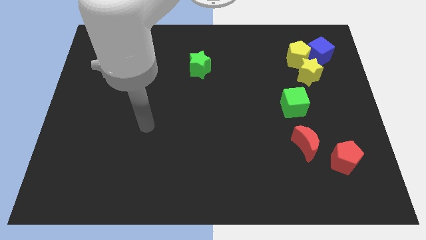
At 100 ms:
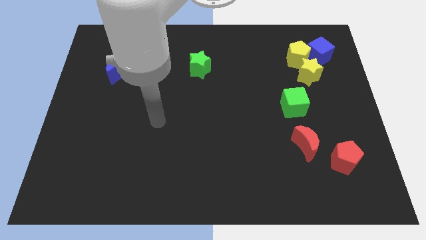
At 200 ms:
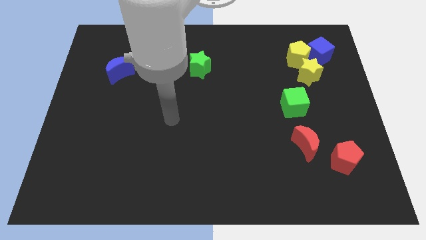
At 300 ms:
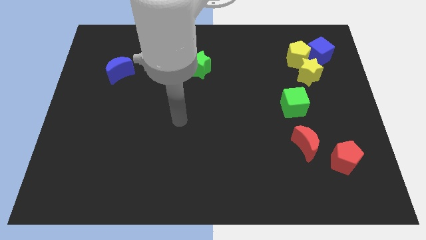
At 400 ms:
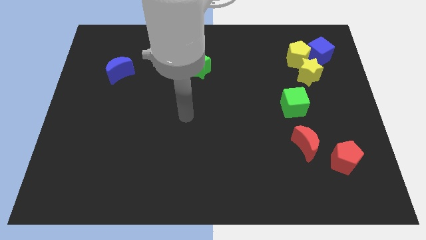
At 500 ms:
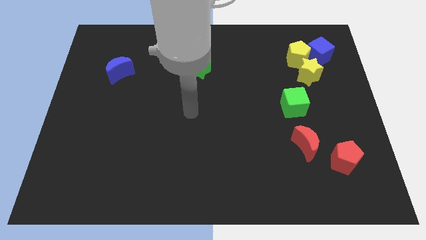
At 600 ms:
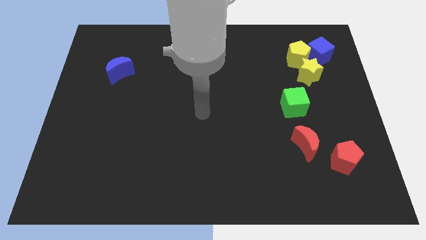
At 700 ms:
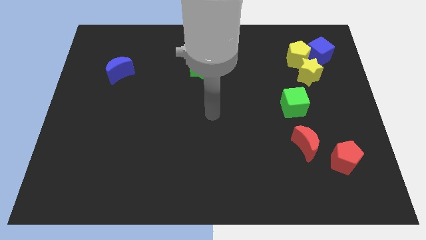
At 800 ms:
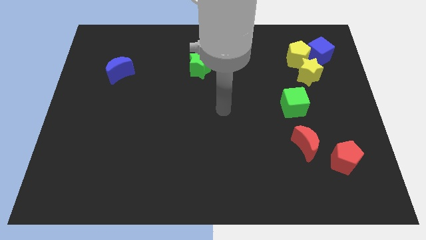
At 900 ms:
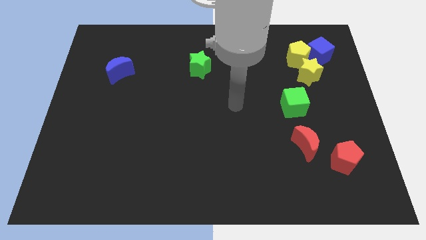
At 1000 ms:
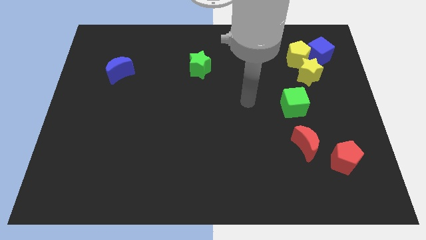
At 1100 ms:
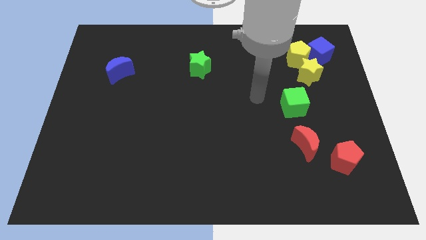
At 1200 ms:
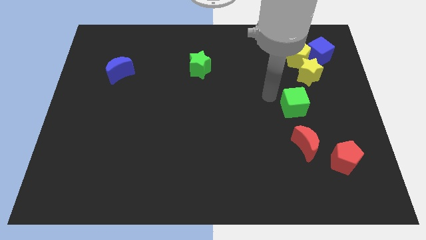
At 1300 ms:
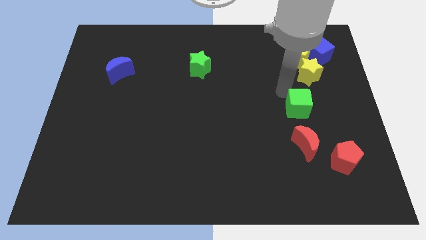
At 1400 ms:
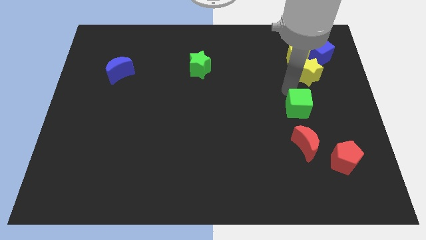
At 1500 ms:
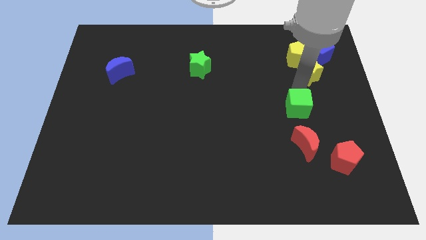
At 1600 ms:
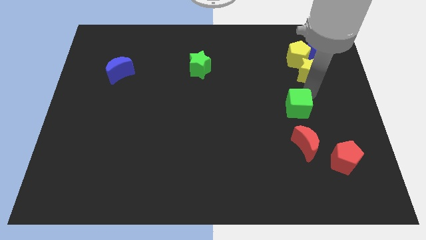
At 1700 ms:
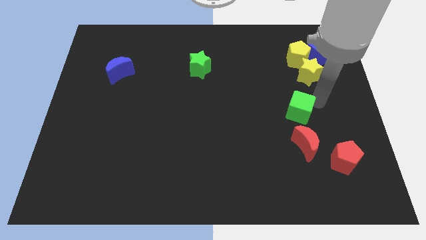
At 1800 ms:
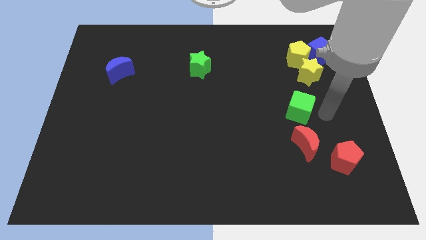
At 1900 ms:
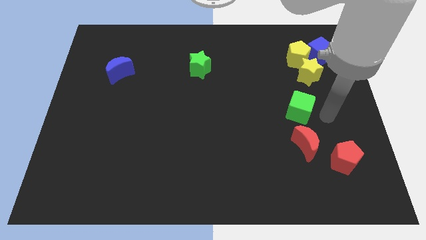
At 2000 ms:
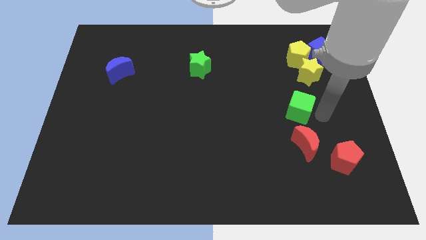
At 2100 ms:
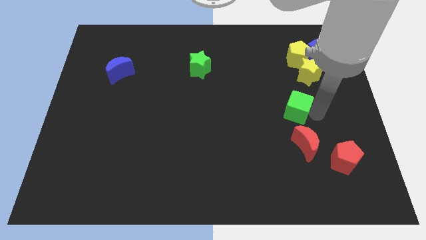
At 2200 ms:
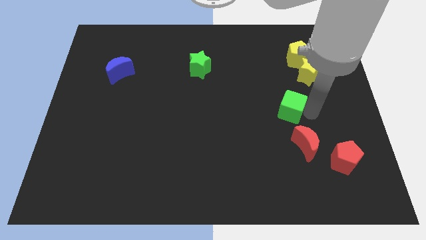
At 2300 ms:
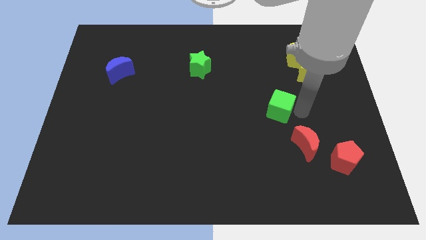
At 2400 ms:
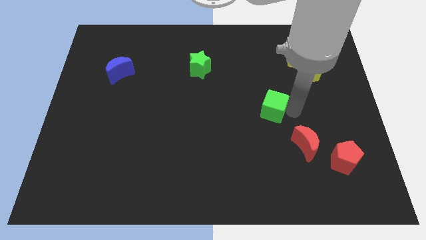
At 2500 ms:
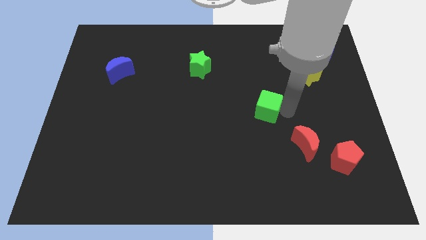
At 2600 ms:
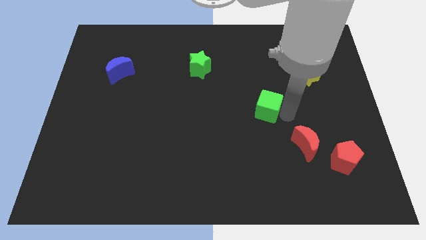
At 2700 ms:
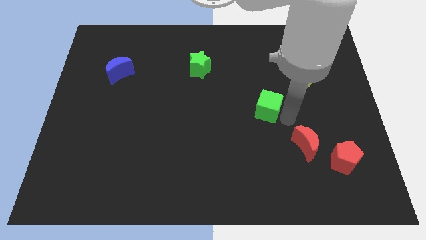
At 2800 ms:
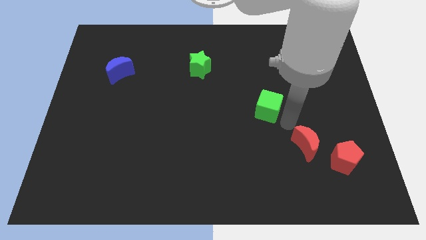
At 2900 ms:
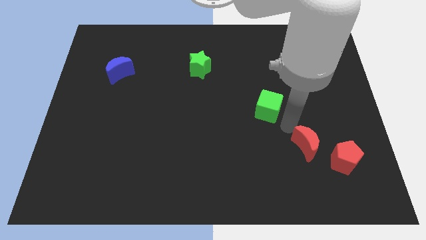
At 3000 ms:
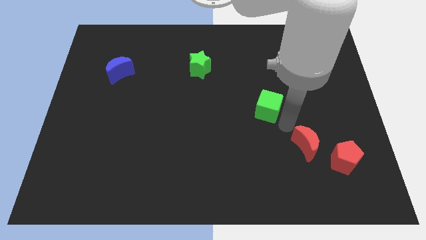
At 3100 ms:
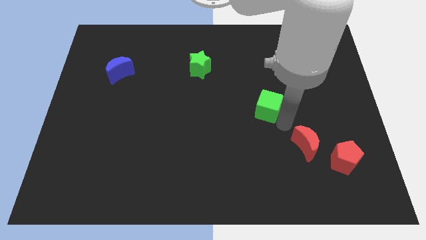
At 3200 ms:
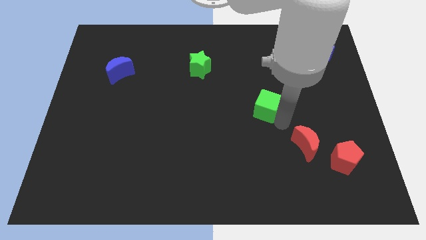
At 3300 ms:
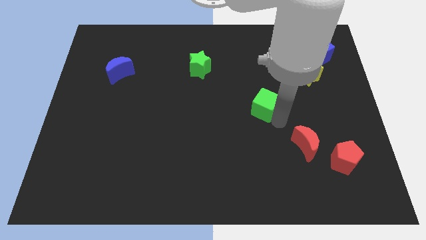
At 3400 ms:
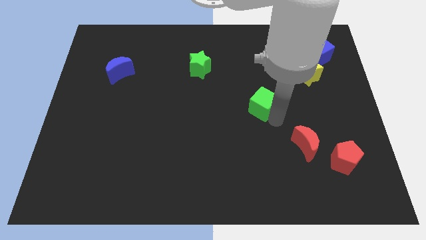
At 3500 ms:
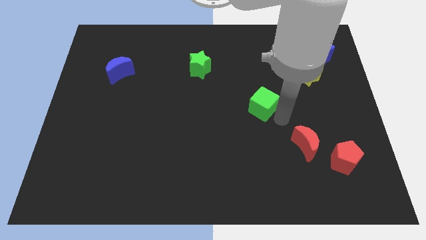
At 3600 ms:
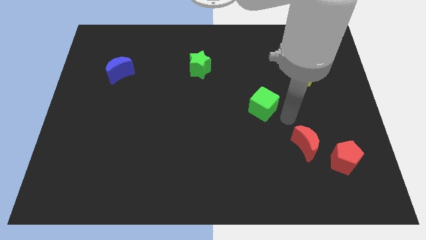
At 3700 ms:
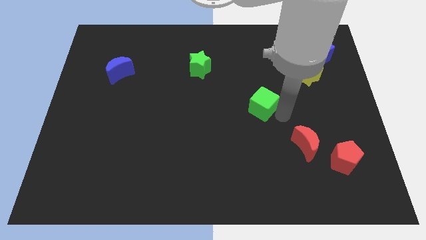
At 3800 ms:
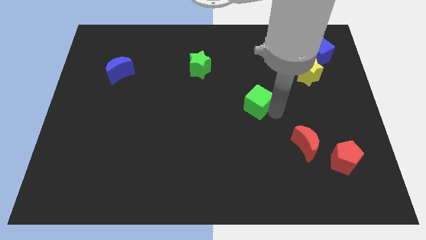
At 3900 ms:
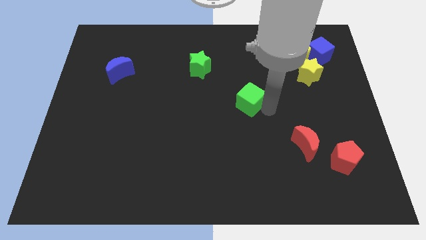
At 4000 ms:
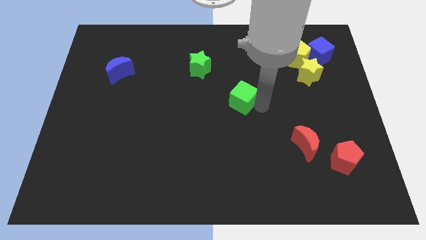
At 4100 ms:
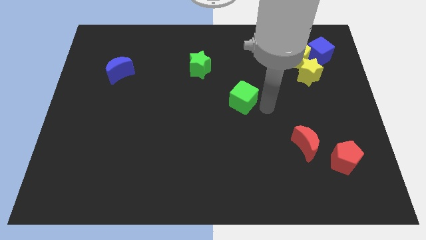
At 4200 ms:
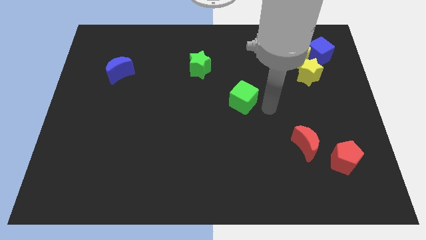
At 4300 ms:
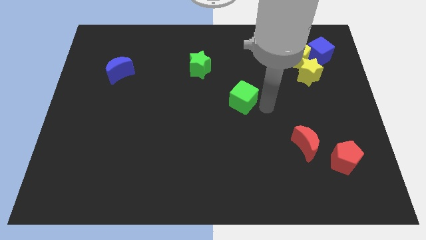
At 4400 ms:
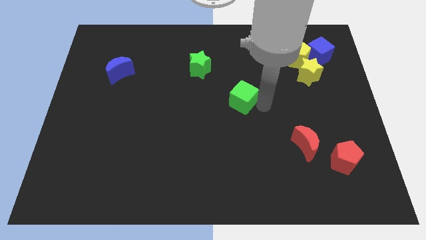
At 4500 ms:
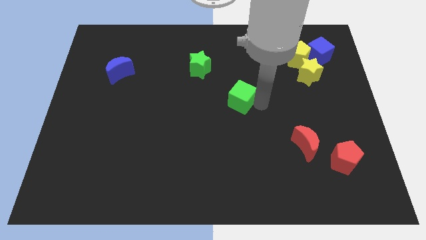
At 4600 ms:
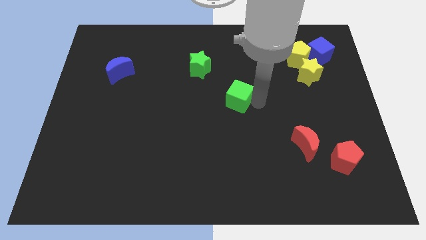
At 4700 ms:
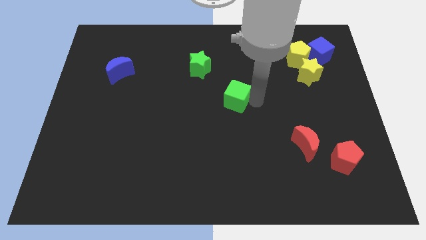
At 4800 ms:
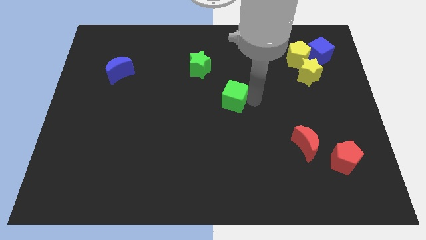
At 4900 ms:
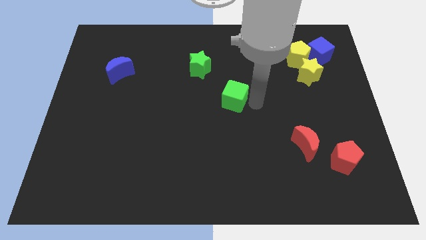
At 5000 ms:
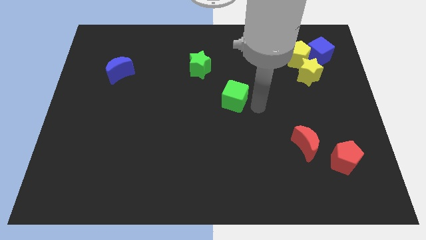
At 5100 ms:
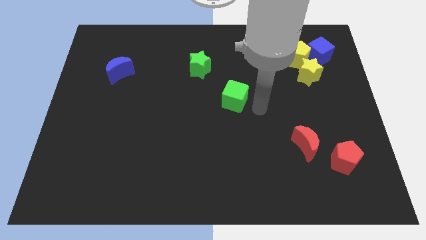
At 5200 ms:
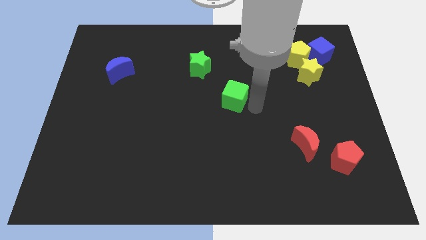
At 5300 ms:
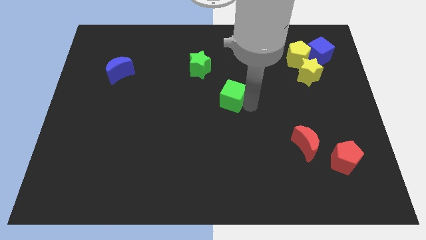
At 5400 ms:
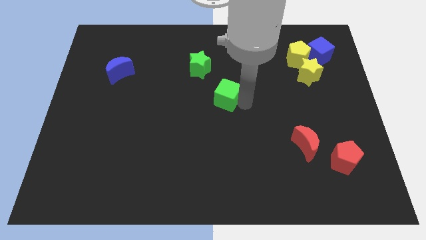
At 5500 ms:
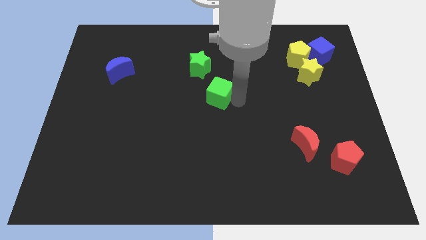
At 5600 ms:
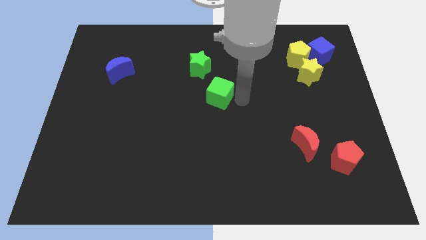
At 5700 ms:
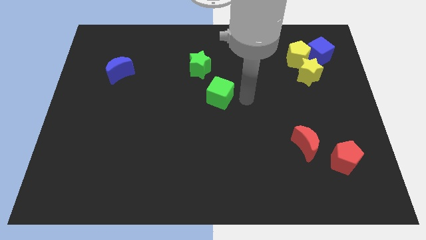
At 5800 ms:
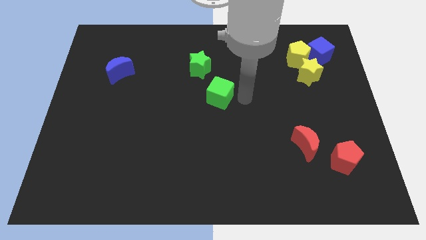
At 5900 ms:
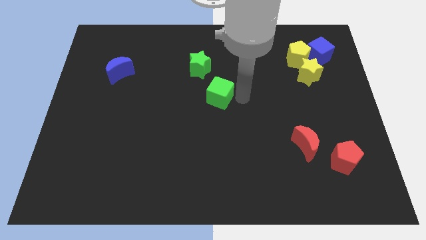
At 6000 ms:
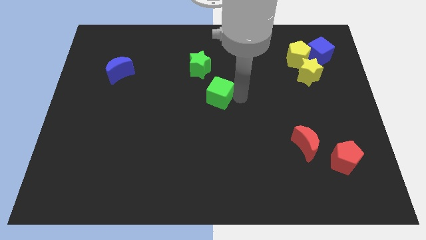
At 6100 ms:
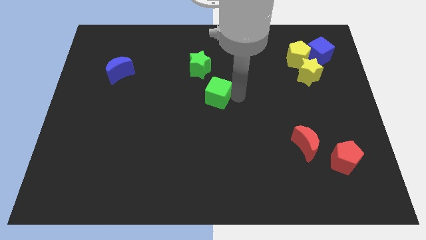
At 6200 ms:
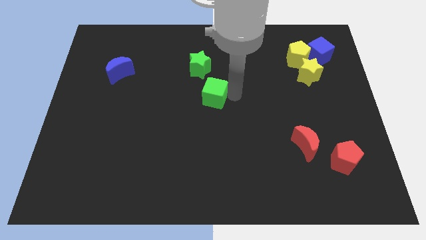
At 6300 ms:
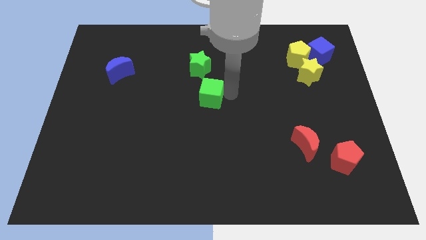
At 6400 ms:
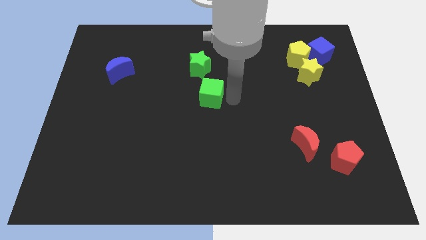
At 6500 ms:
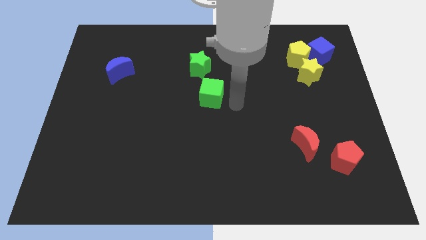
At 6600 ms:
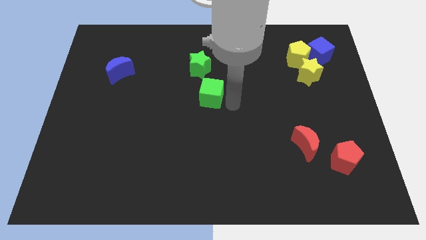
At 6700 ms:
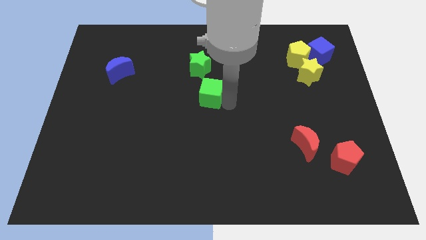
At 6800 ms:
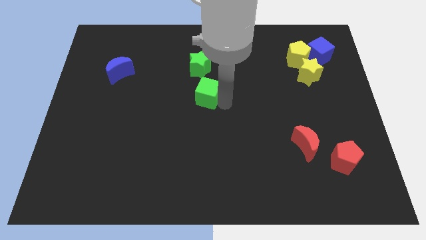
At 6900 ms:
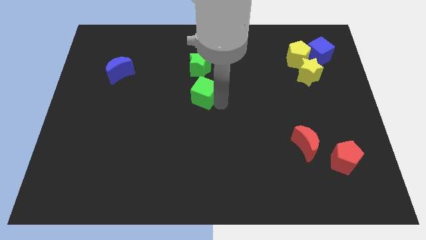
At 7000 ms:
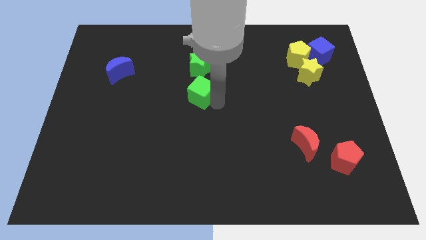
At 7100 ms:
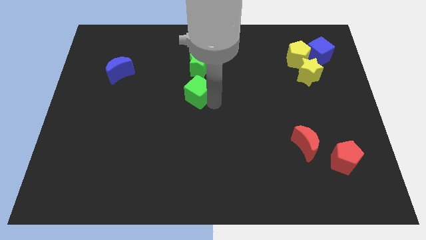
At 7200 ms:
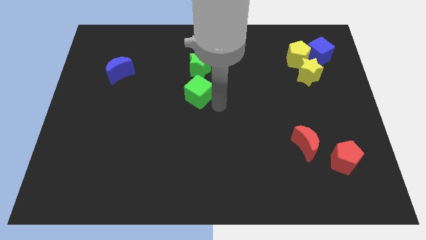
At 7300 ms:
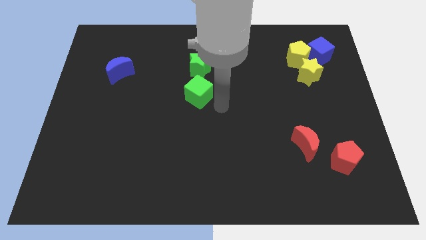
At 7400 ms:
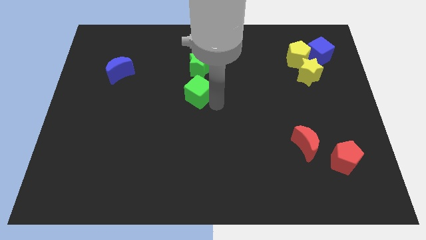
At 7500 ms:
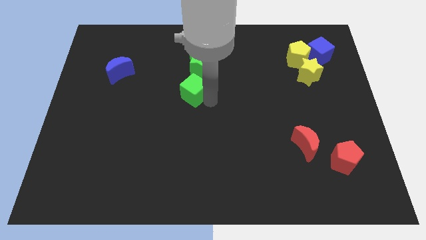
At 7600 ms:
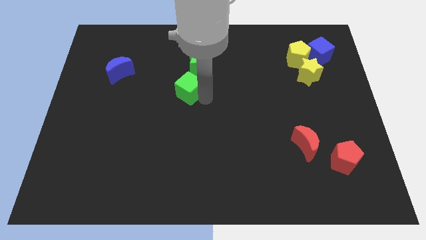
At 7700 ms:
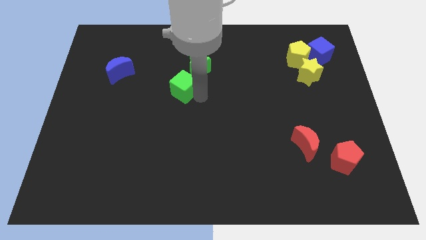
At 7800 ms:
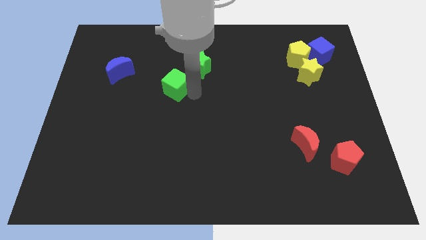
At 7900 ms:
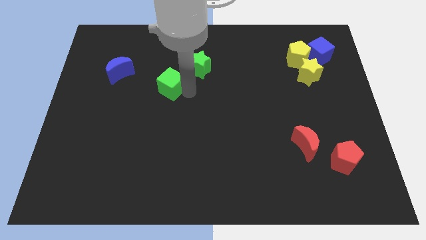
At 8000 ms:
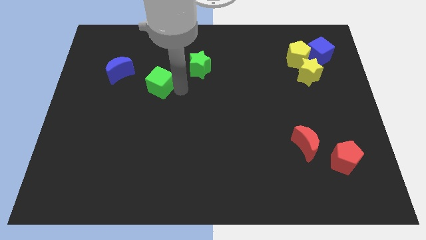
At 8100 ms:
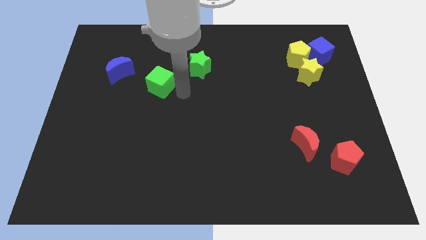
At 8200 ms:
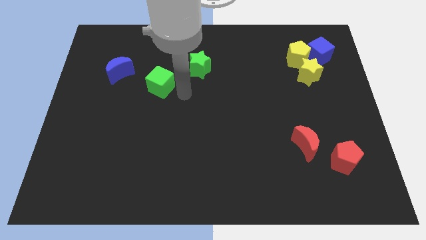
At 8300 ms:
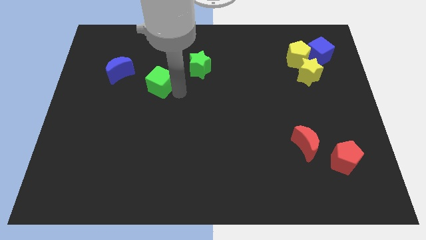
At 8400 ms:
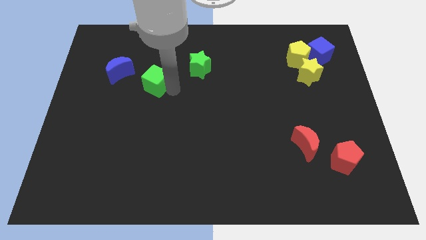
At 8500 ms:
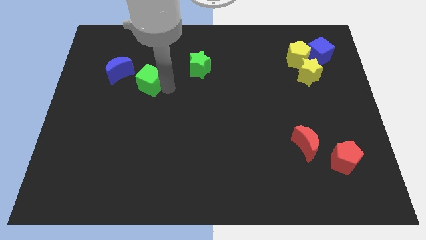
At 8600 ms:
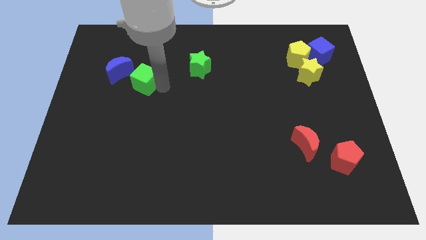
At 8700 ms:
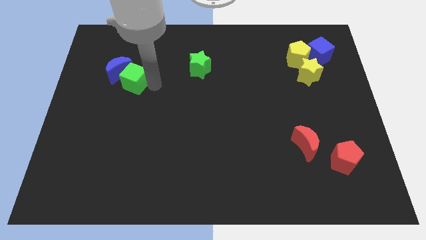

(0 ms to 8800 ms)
put the green cube towards the blue moon
